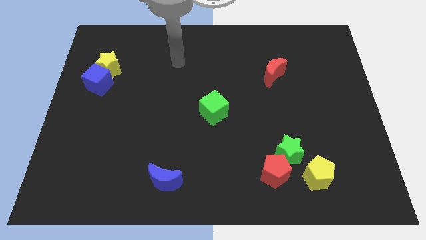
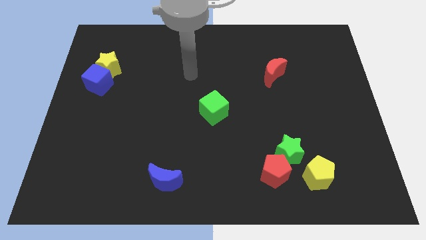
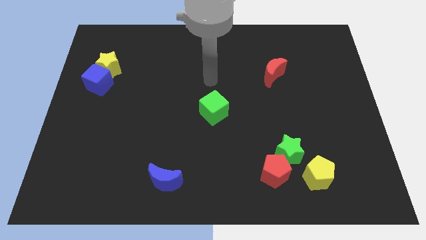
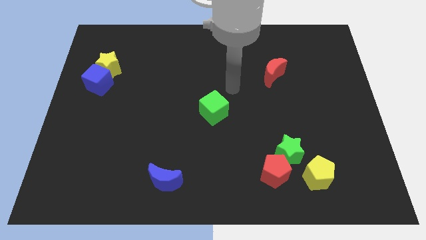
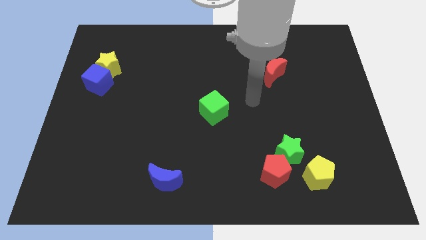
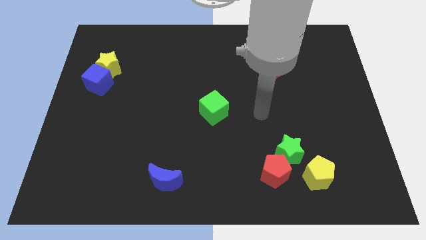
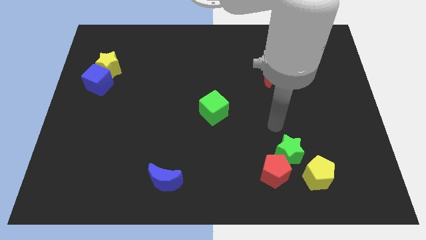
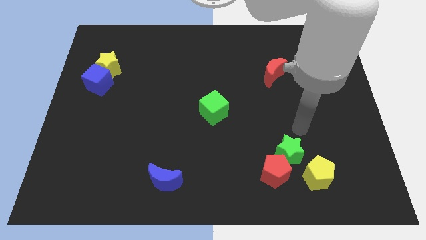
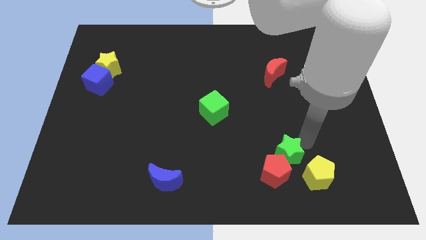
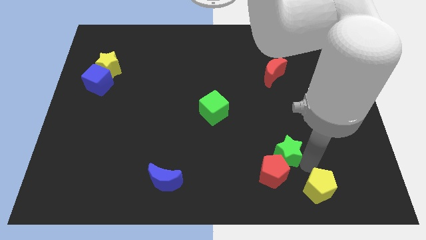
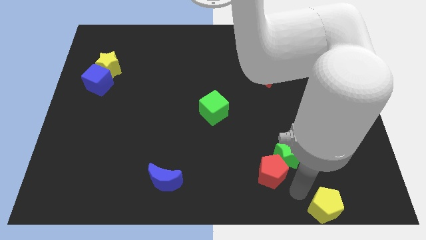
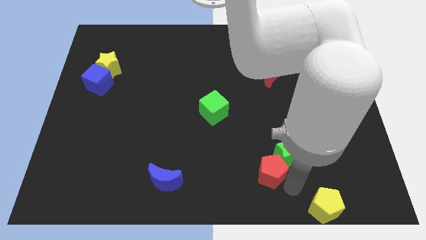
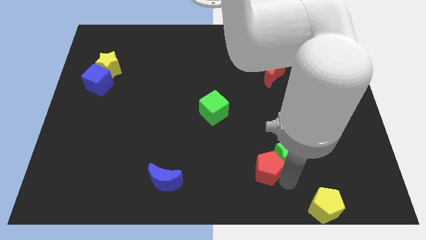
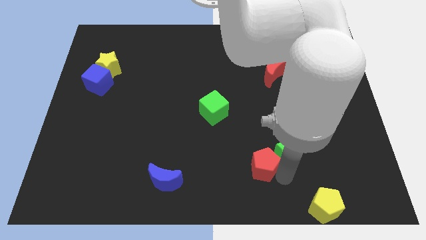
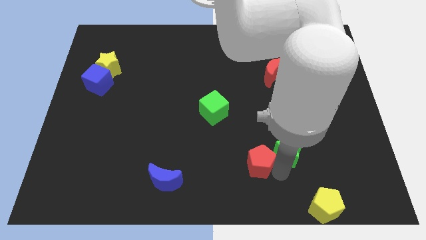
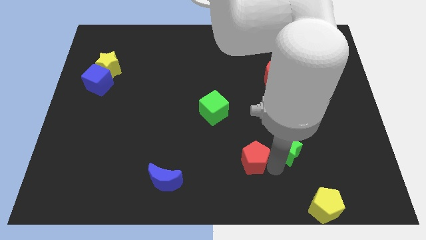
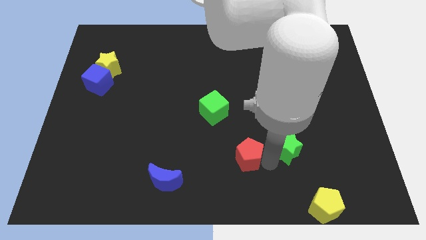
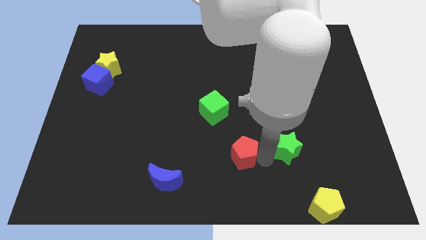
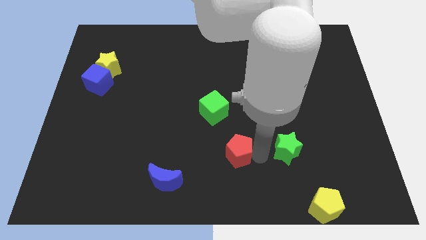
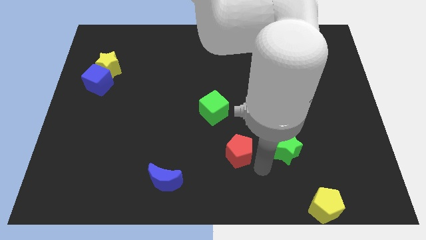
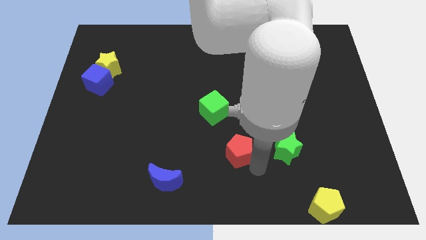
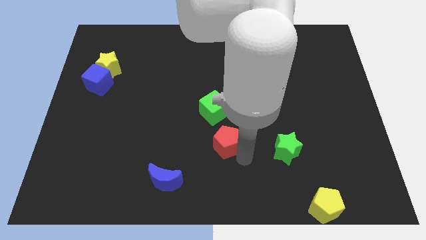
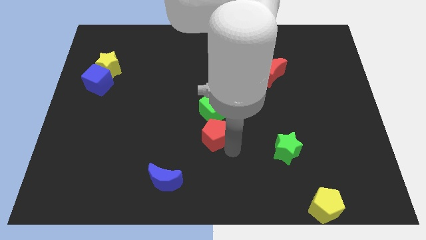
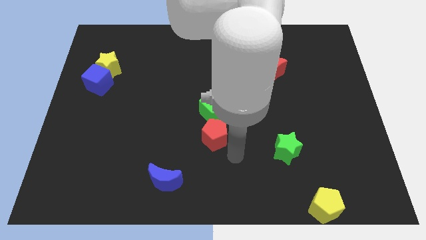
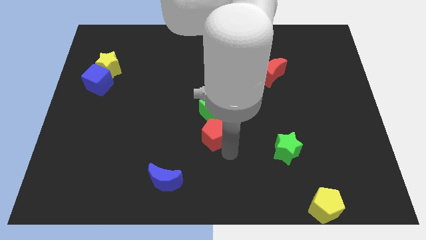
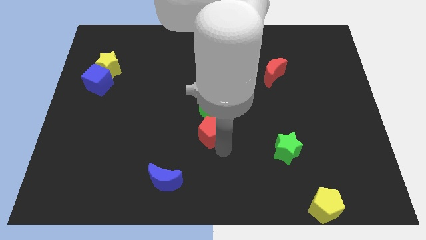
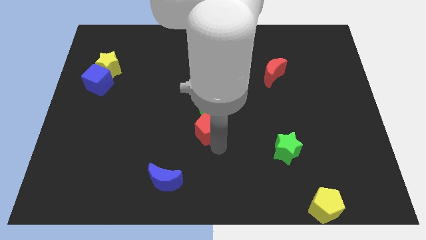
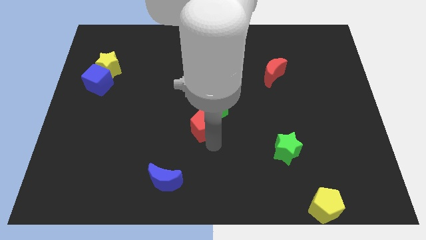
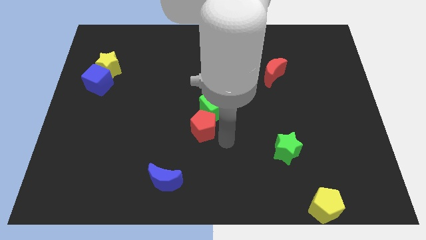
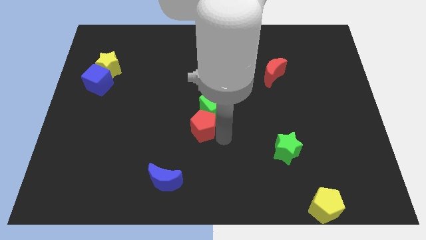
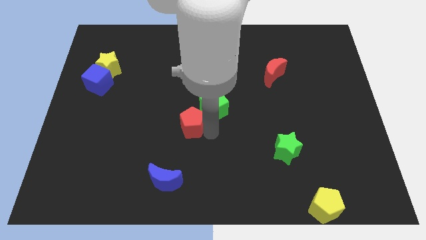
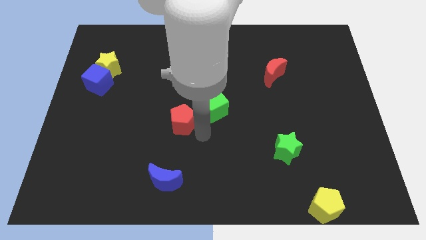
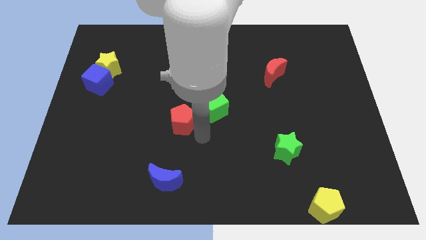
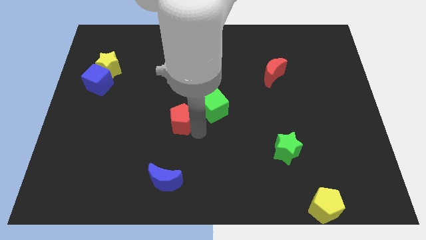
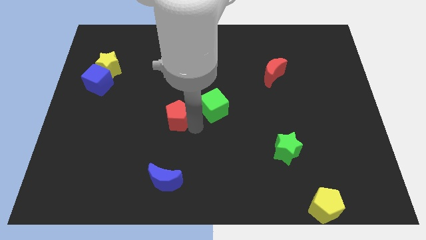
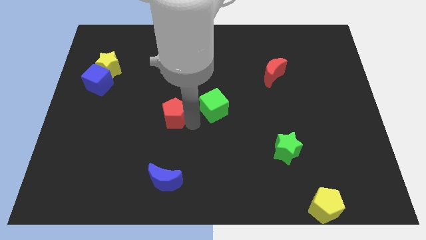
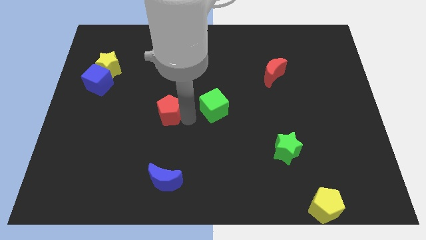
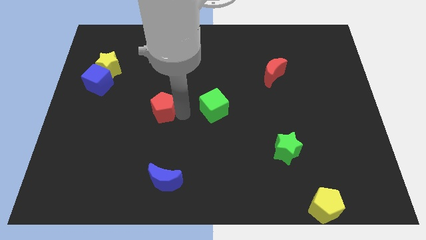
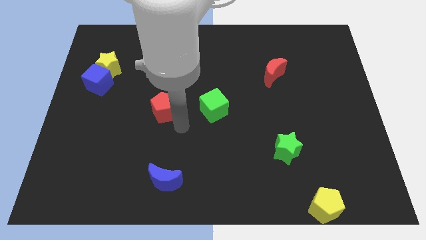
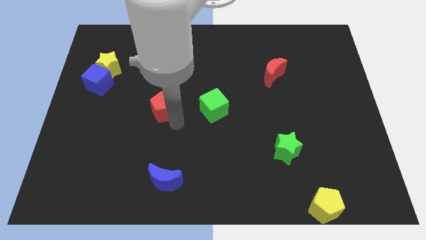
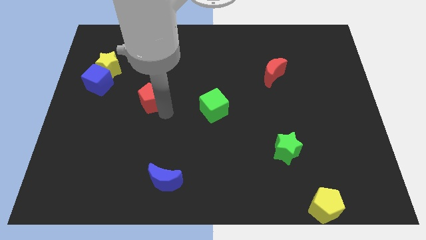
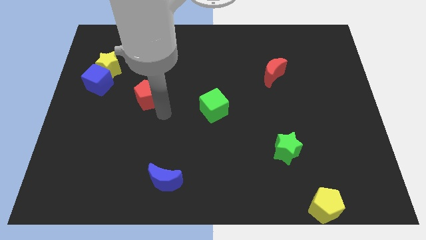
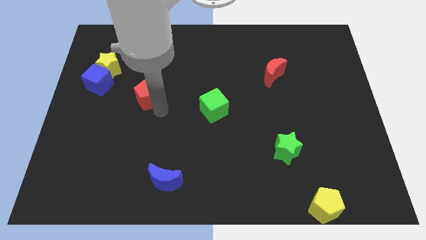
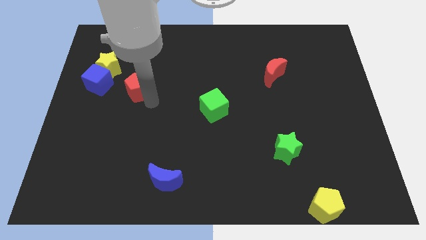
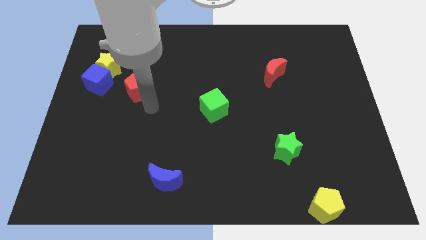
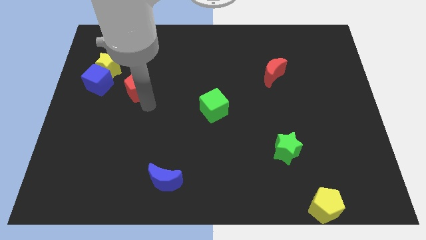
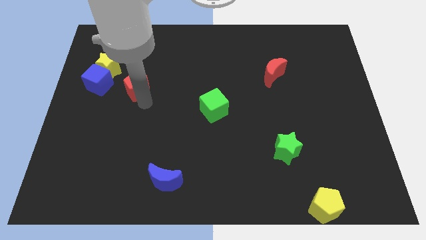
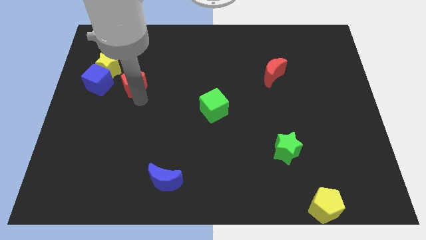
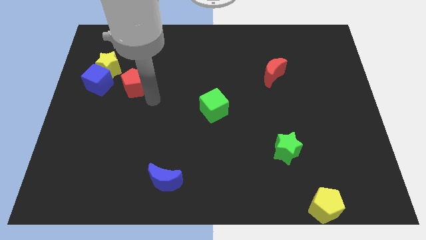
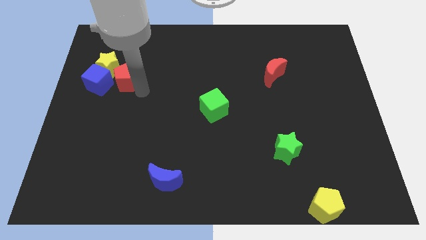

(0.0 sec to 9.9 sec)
slide the red pentagon close to the yellow star

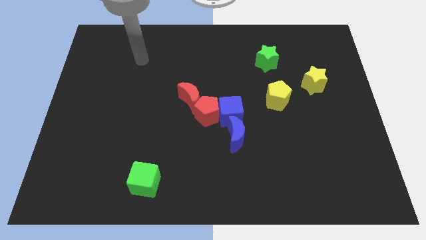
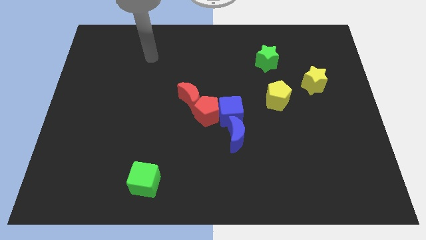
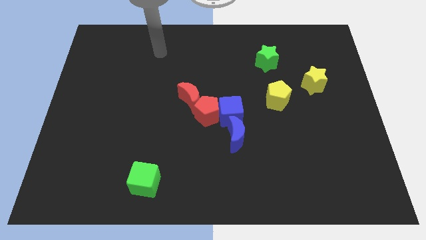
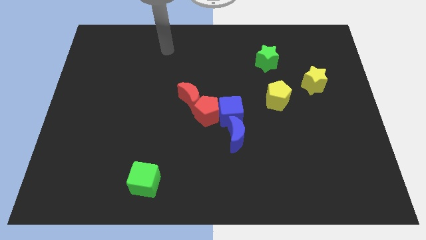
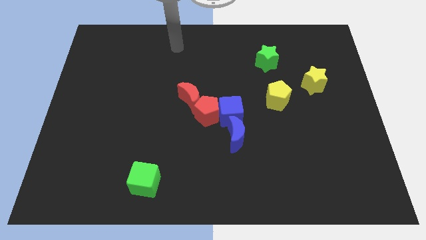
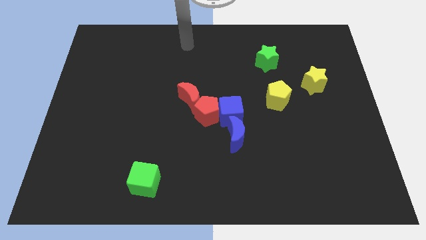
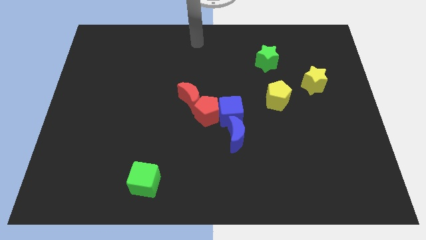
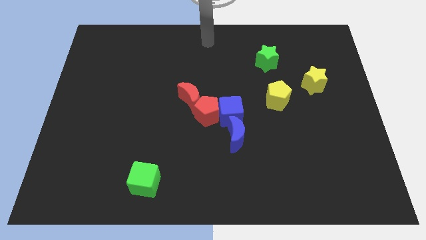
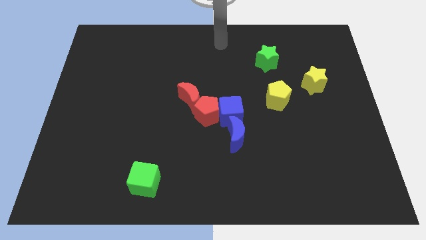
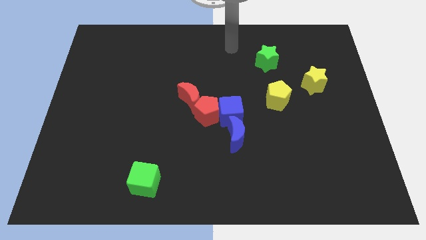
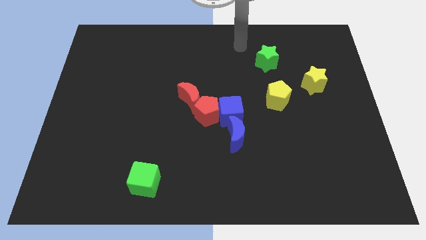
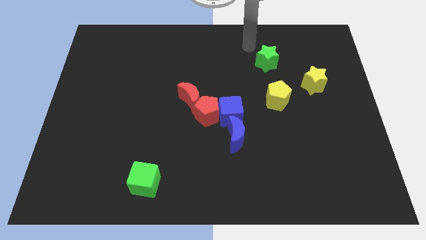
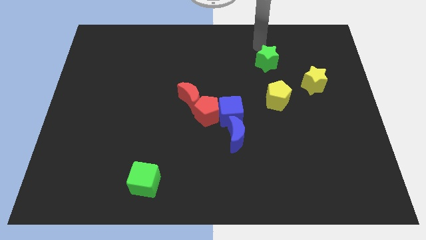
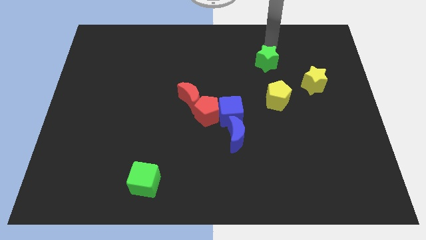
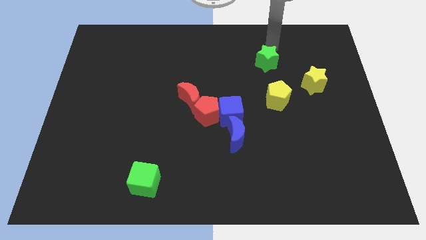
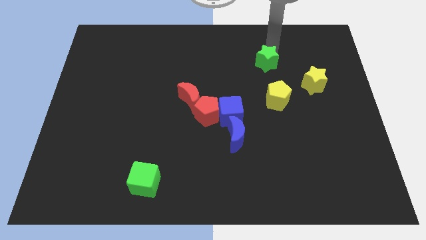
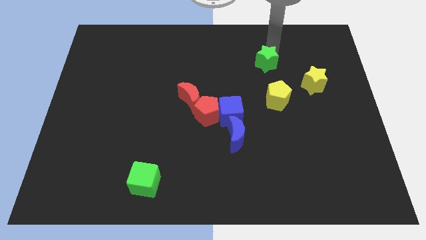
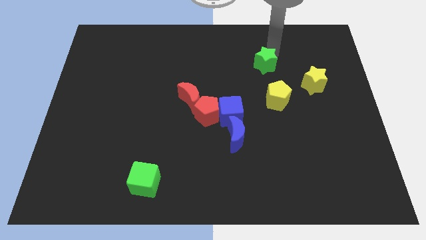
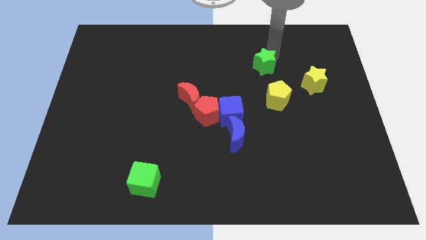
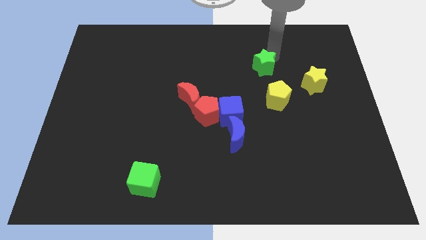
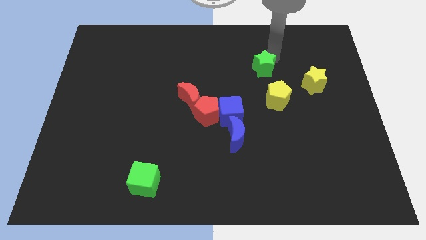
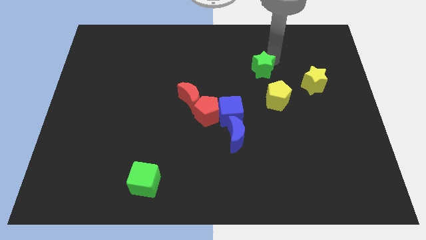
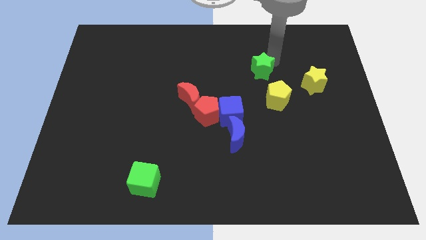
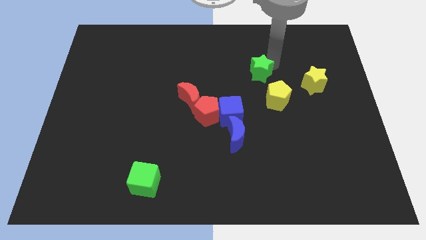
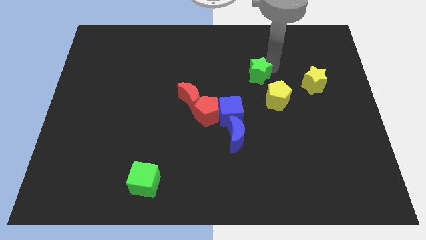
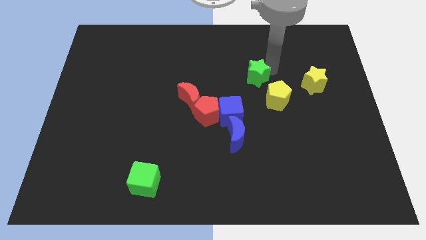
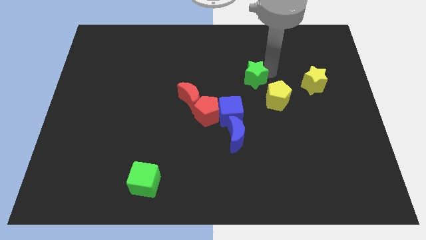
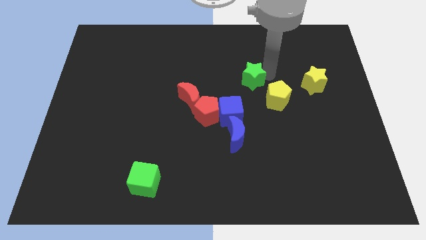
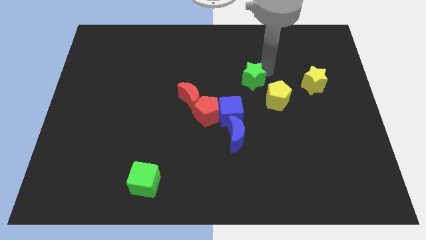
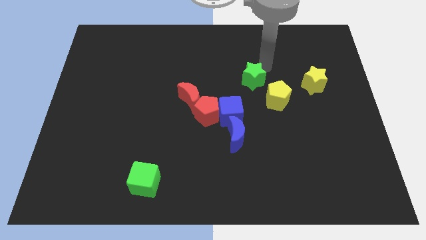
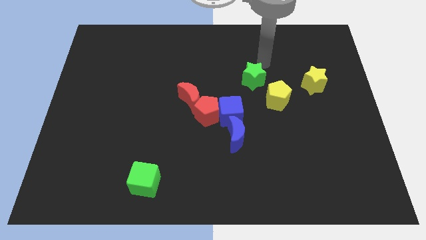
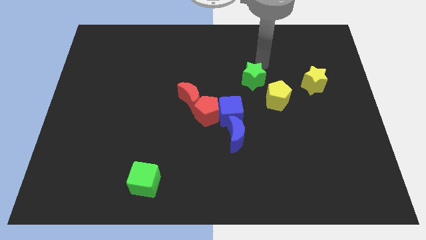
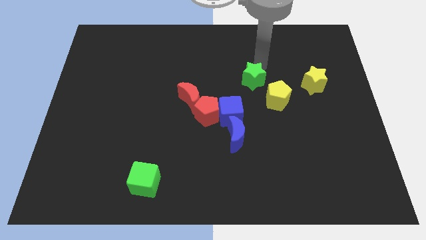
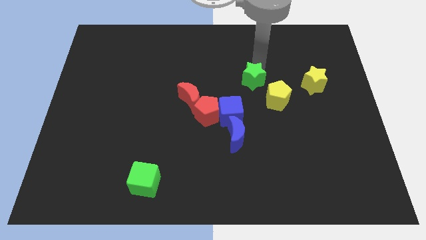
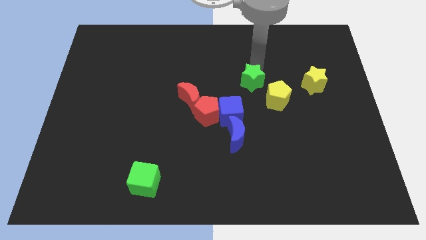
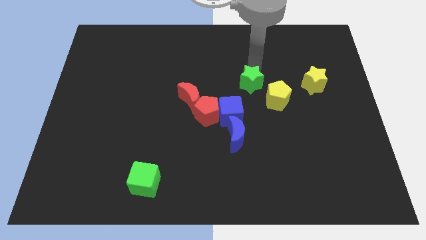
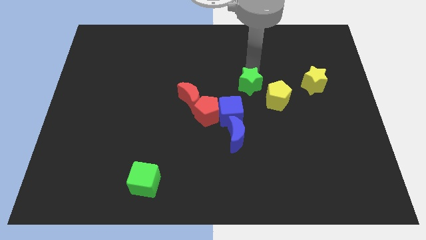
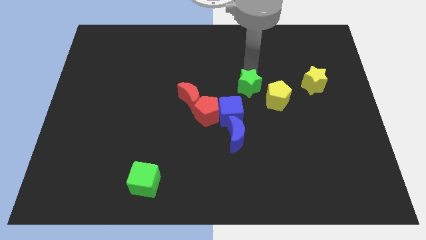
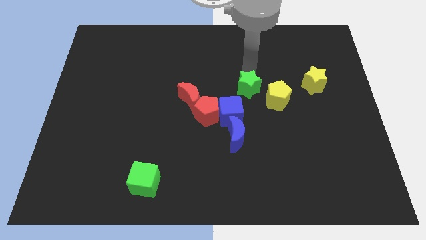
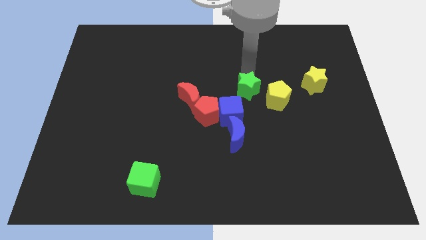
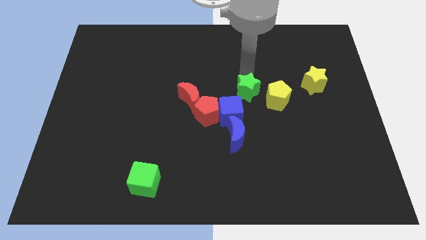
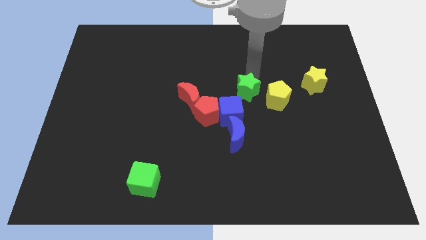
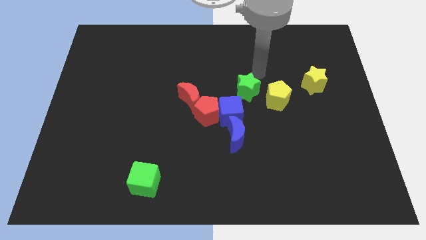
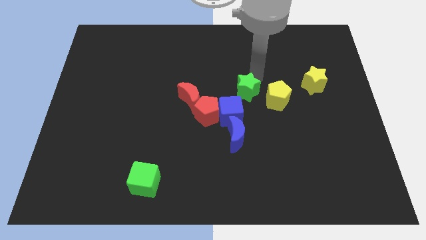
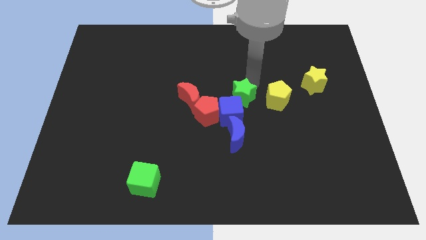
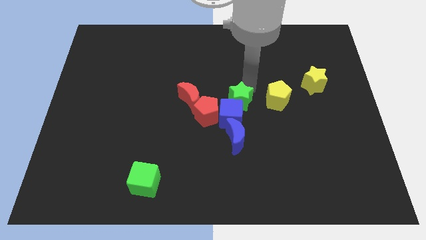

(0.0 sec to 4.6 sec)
move the green star towards the blue cube
